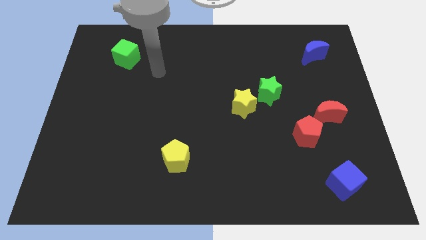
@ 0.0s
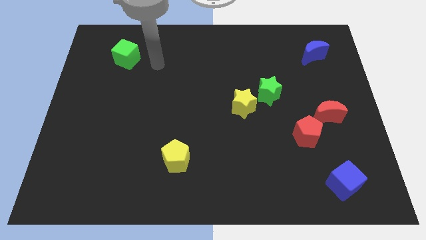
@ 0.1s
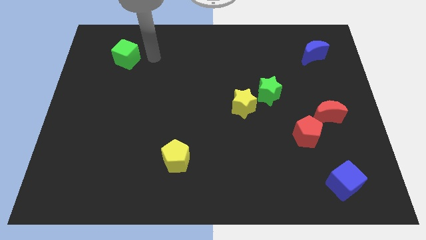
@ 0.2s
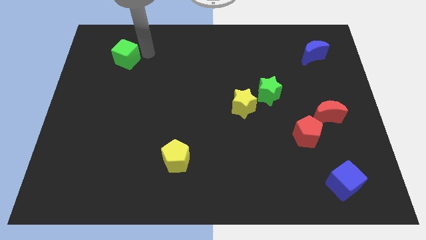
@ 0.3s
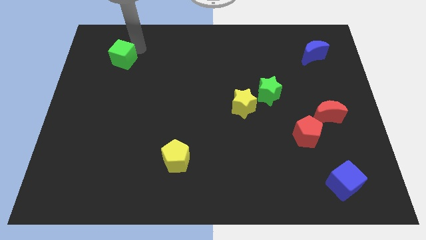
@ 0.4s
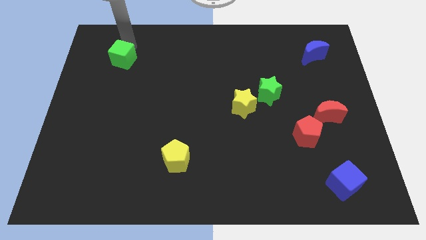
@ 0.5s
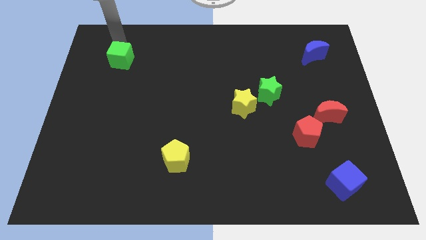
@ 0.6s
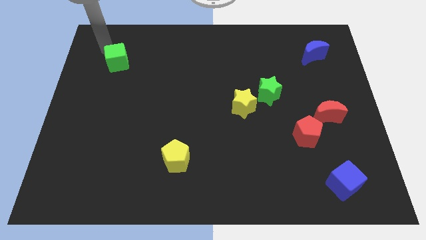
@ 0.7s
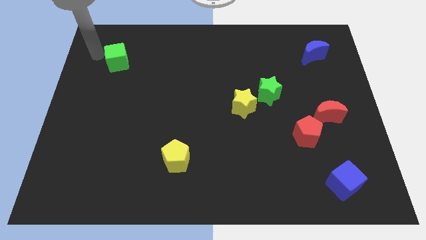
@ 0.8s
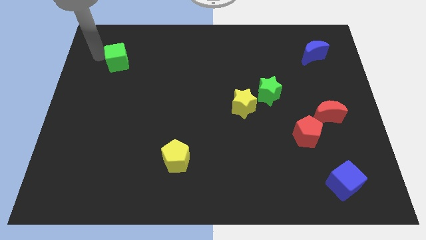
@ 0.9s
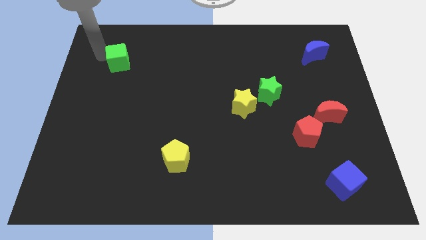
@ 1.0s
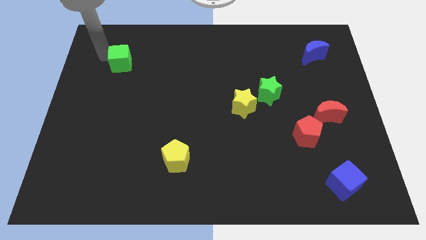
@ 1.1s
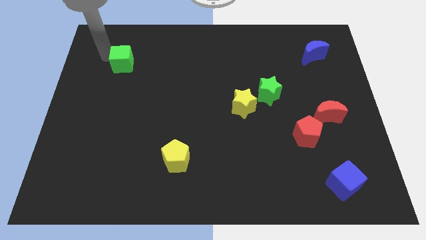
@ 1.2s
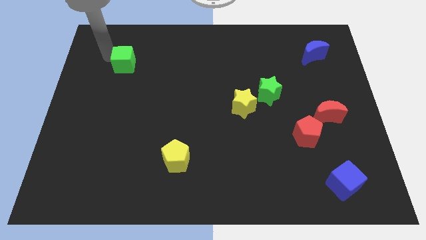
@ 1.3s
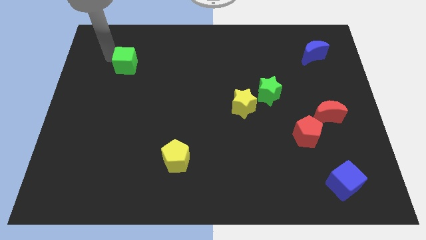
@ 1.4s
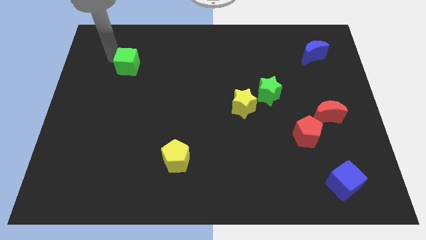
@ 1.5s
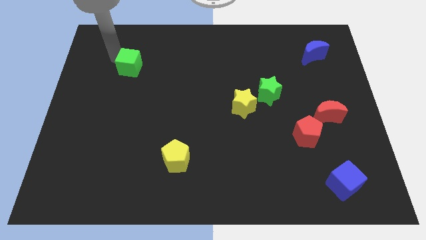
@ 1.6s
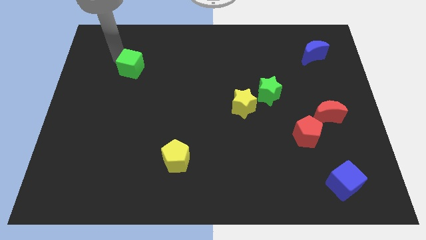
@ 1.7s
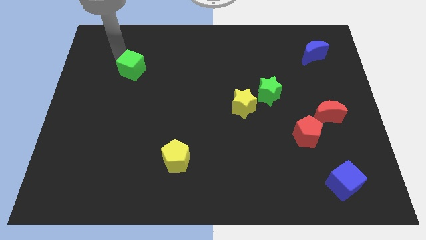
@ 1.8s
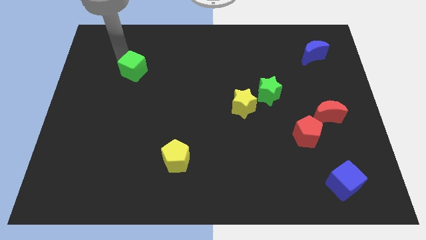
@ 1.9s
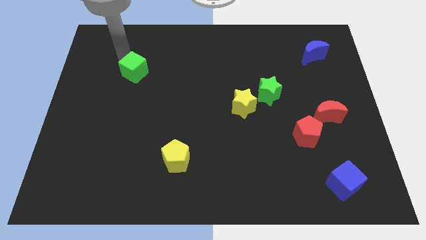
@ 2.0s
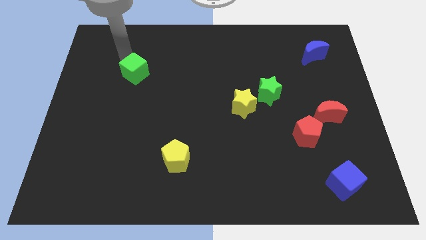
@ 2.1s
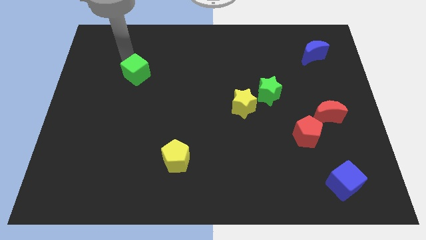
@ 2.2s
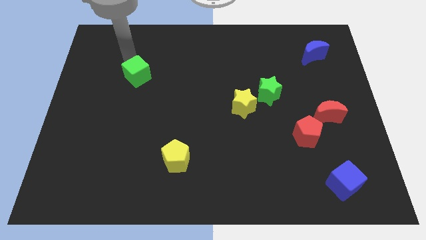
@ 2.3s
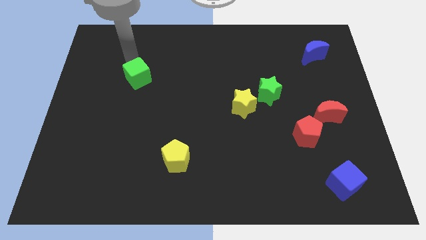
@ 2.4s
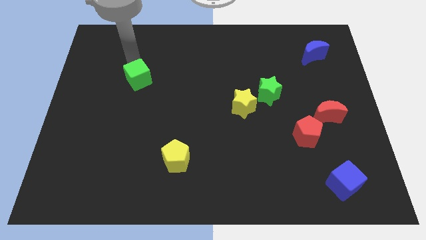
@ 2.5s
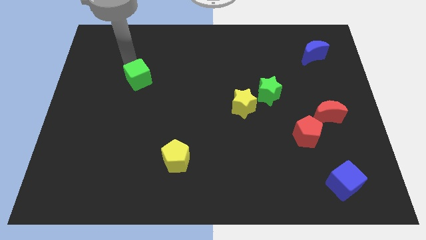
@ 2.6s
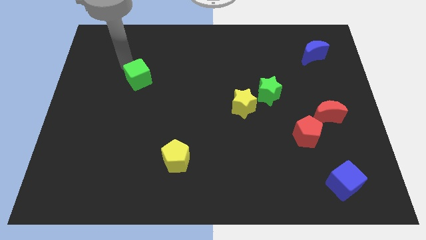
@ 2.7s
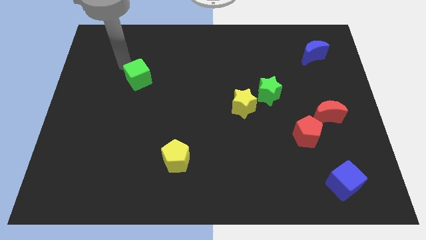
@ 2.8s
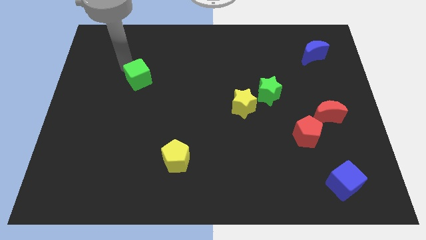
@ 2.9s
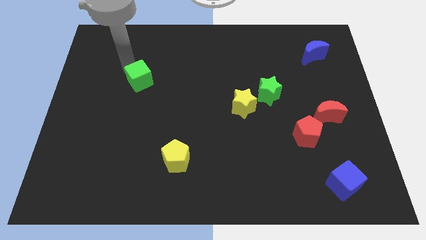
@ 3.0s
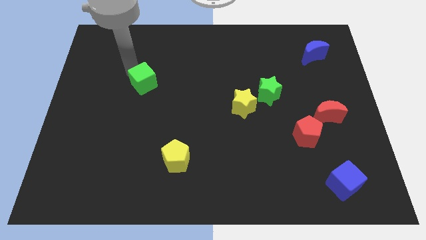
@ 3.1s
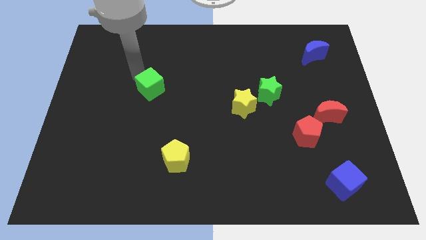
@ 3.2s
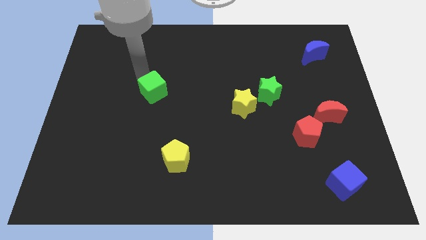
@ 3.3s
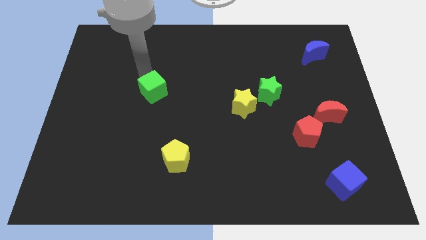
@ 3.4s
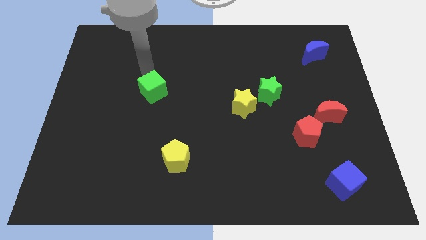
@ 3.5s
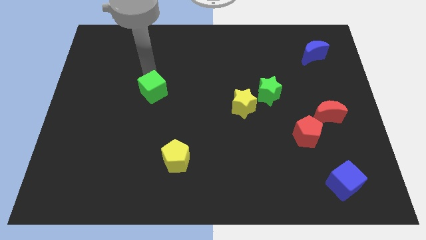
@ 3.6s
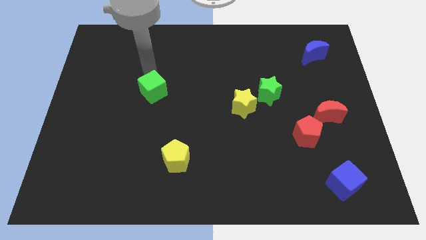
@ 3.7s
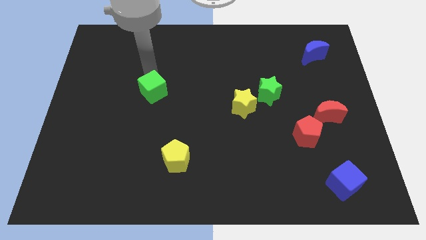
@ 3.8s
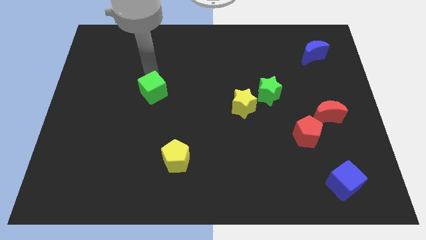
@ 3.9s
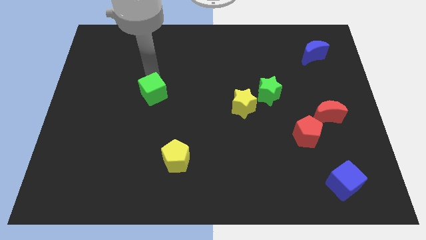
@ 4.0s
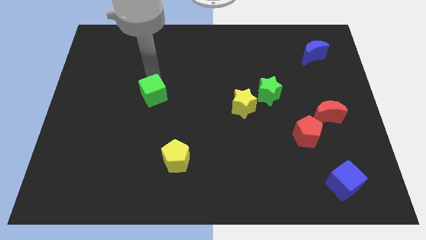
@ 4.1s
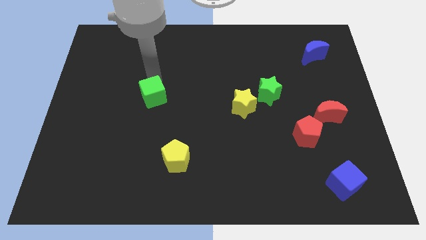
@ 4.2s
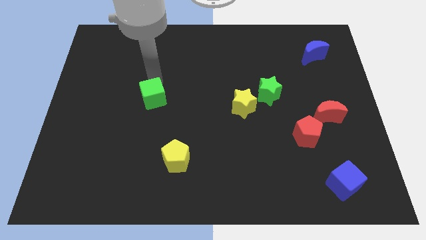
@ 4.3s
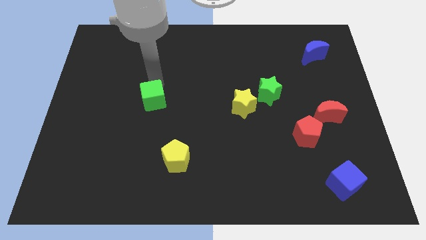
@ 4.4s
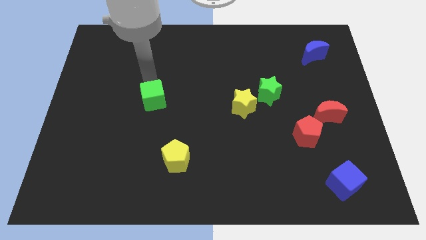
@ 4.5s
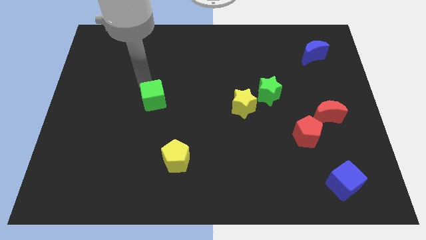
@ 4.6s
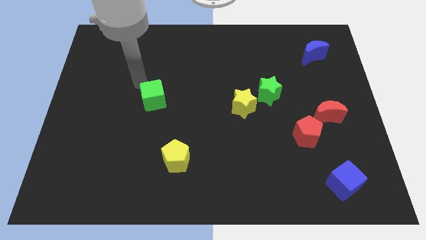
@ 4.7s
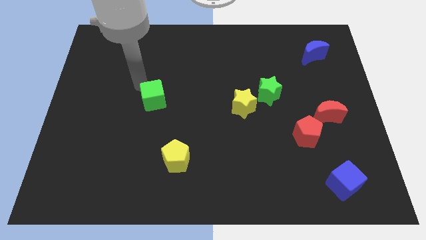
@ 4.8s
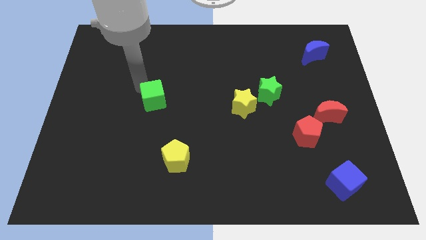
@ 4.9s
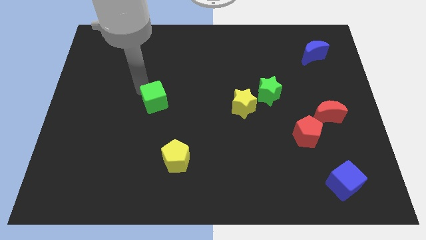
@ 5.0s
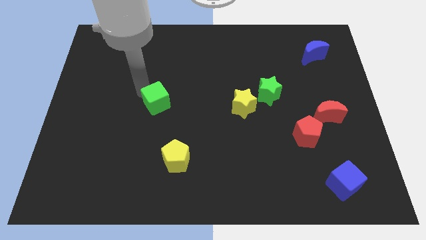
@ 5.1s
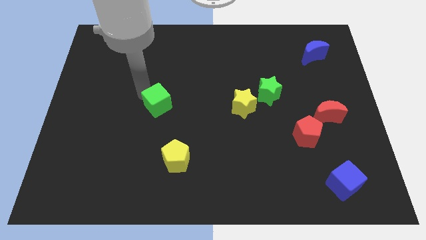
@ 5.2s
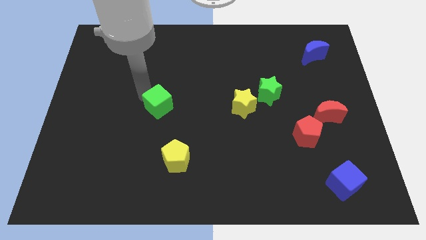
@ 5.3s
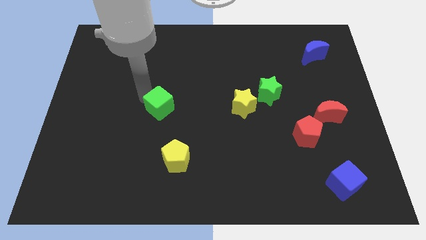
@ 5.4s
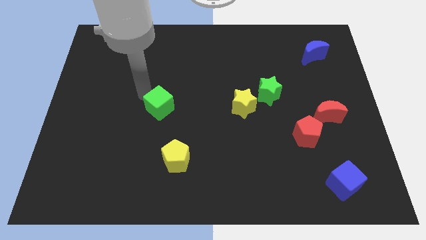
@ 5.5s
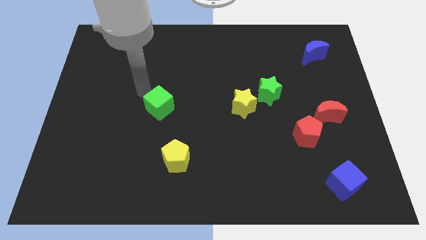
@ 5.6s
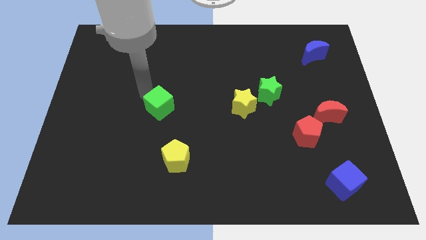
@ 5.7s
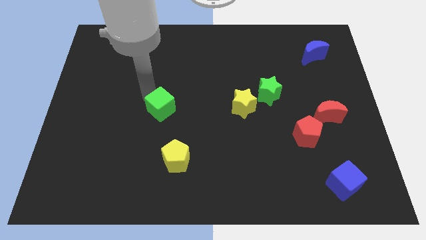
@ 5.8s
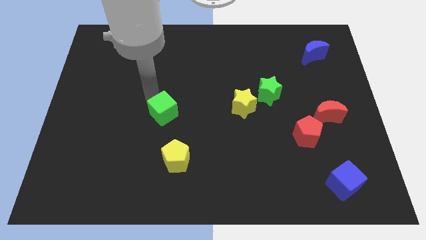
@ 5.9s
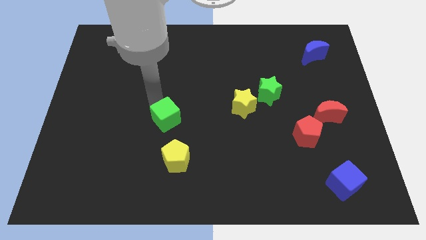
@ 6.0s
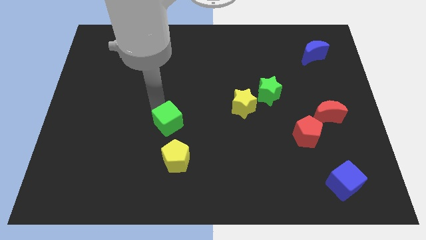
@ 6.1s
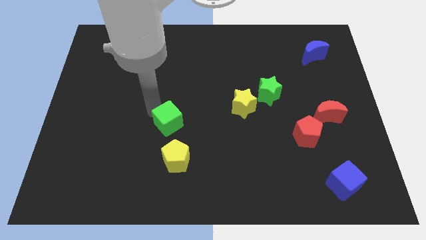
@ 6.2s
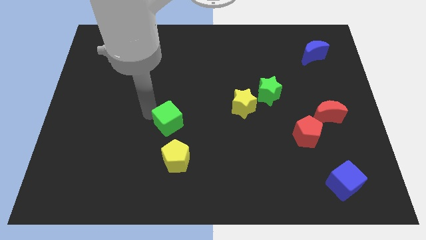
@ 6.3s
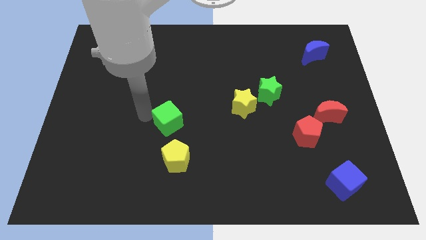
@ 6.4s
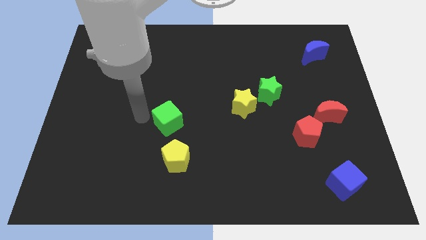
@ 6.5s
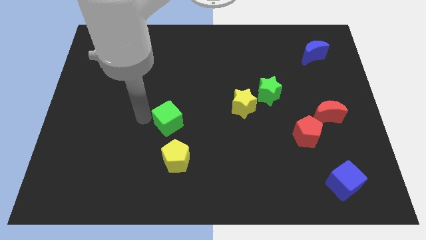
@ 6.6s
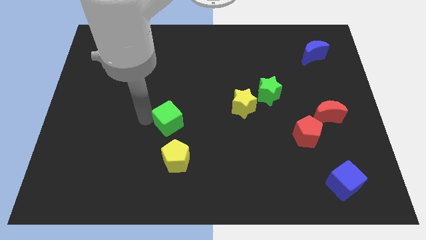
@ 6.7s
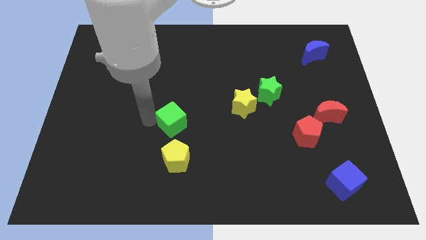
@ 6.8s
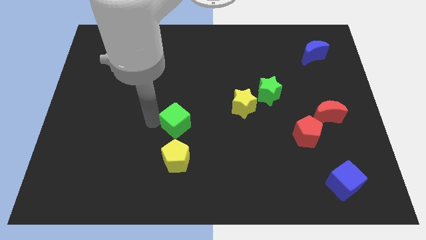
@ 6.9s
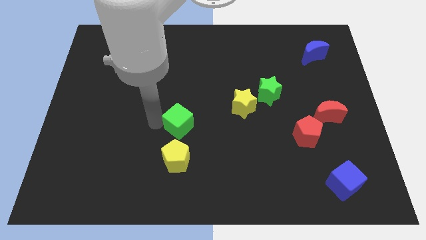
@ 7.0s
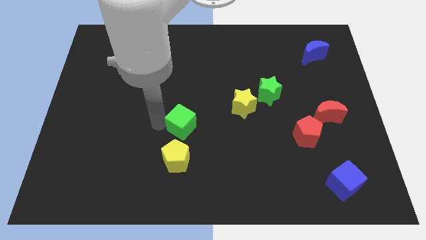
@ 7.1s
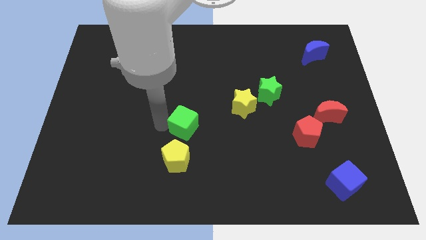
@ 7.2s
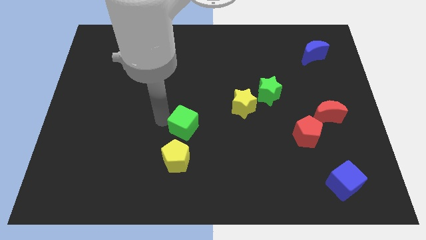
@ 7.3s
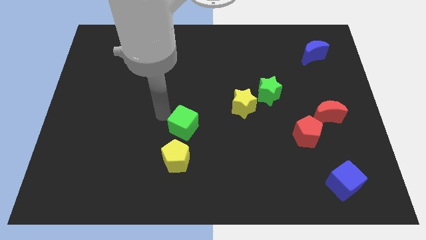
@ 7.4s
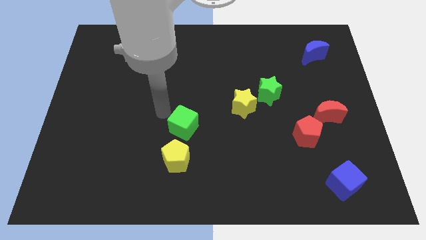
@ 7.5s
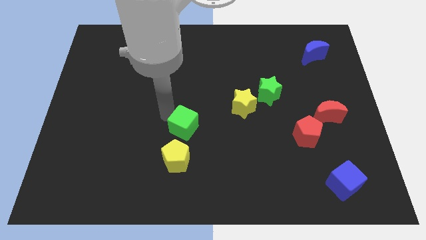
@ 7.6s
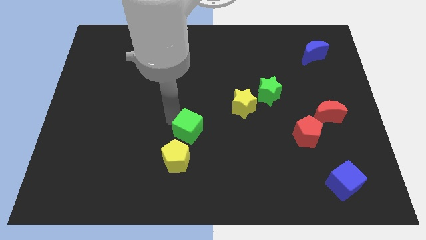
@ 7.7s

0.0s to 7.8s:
slide the green cube to the top right side of the yellow pentagon
